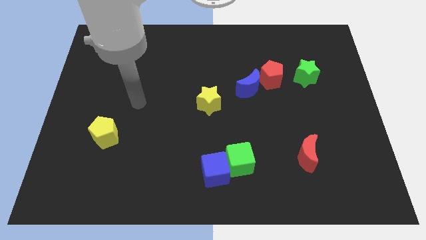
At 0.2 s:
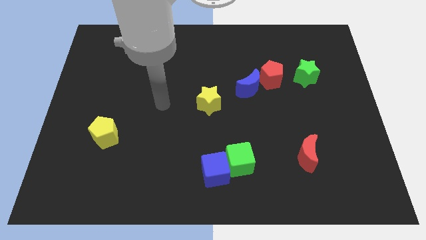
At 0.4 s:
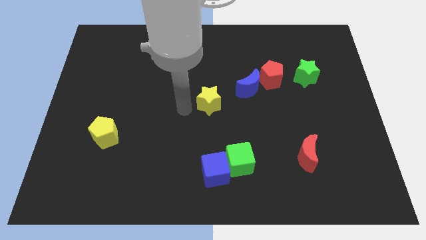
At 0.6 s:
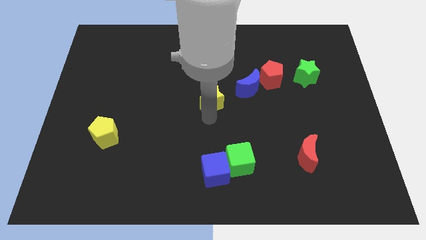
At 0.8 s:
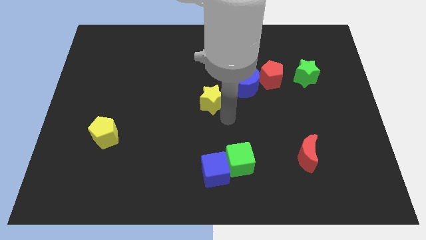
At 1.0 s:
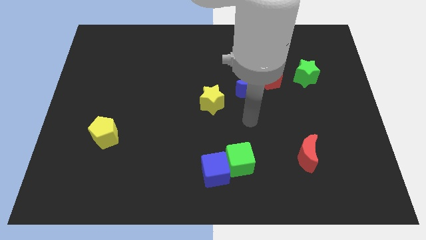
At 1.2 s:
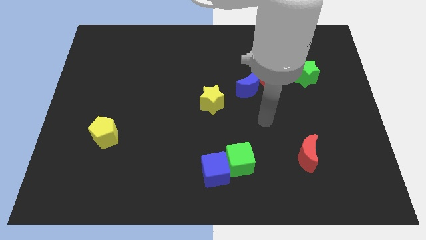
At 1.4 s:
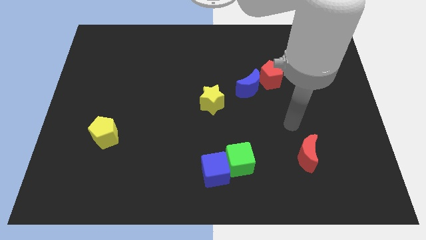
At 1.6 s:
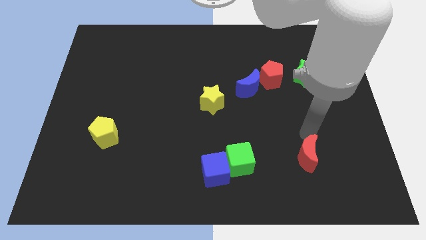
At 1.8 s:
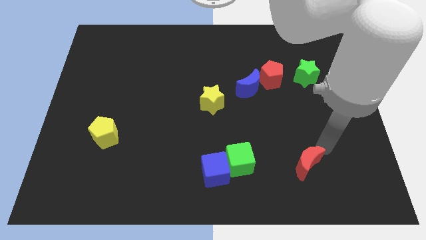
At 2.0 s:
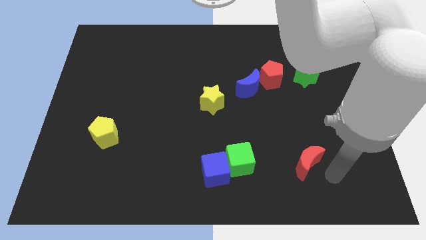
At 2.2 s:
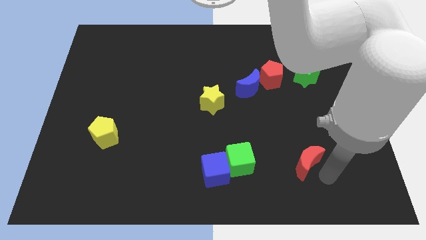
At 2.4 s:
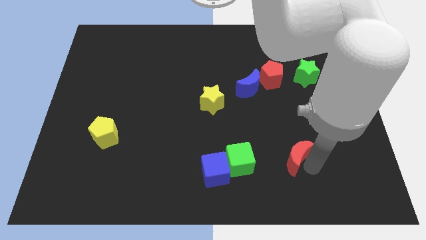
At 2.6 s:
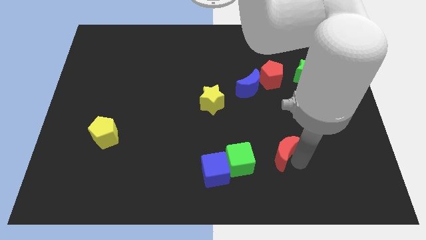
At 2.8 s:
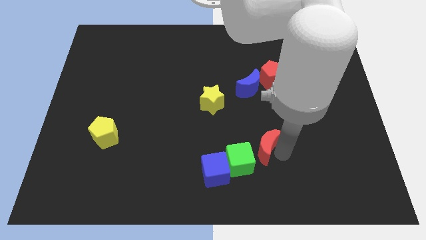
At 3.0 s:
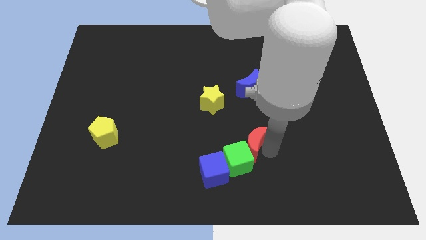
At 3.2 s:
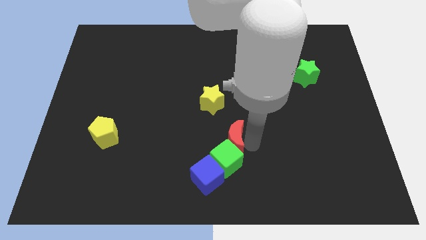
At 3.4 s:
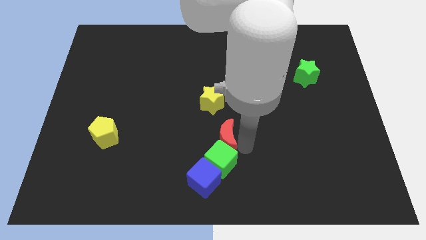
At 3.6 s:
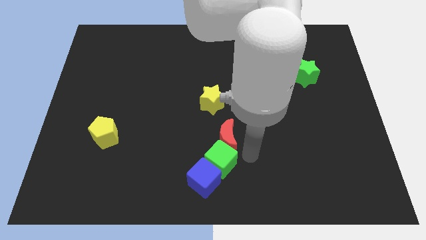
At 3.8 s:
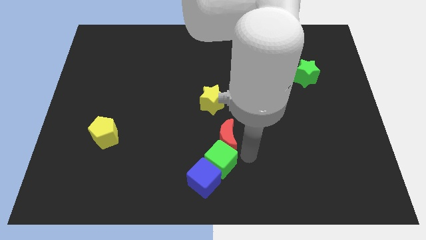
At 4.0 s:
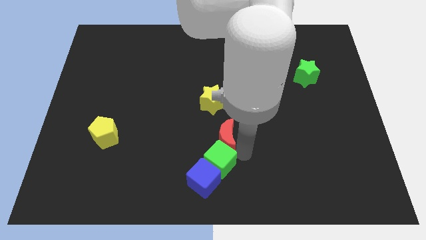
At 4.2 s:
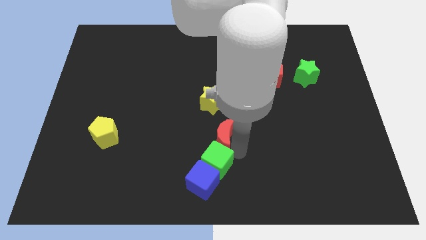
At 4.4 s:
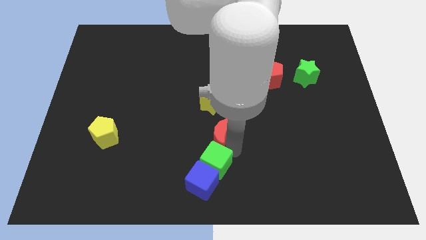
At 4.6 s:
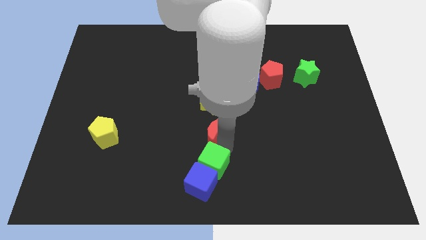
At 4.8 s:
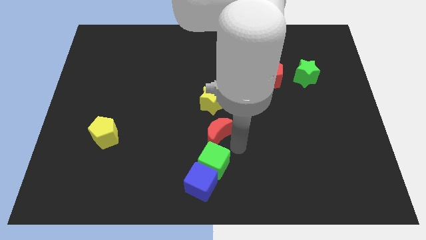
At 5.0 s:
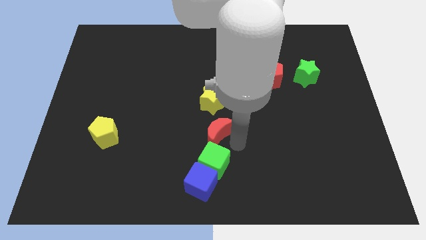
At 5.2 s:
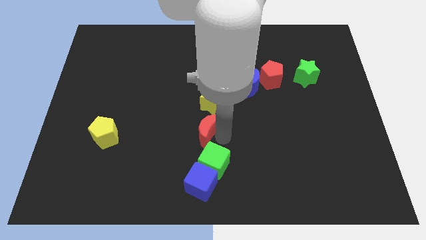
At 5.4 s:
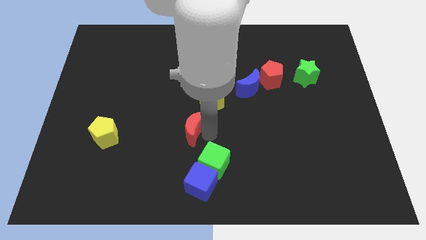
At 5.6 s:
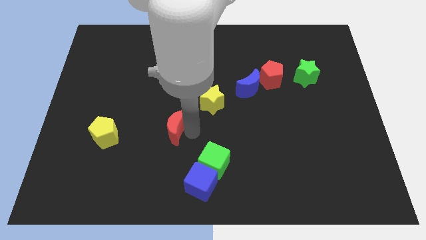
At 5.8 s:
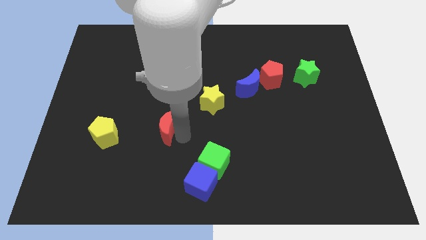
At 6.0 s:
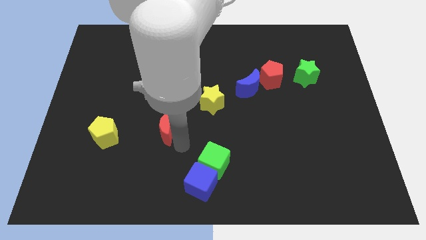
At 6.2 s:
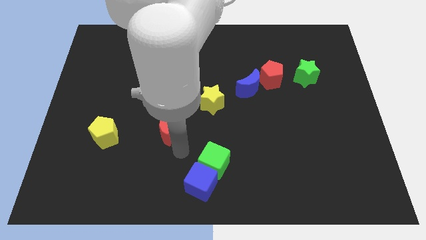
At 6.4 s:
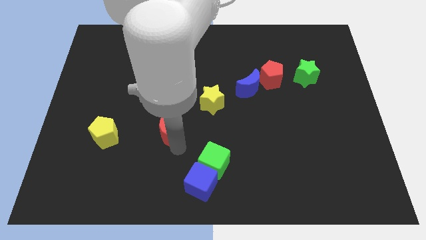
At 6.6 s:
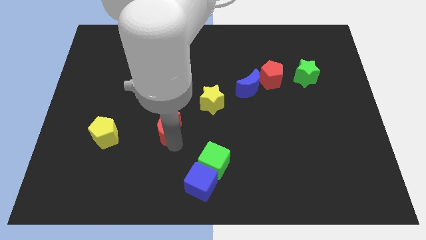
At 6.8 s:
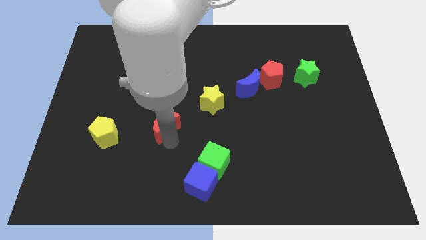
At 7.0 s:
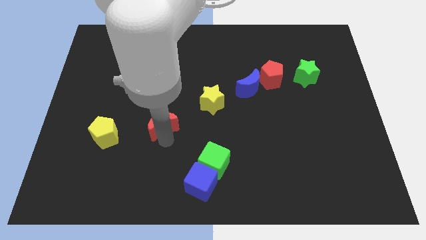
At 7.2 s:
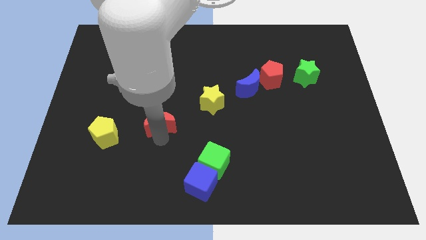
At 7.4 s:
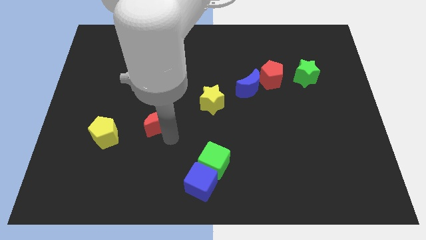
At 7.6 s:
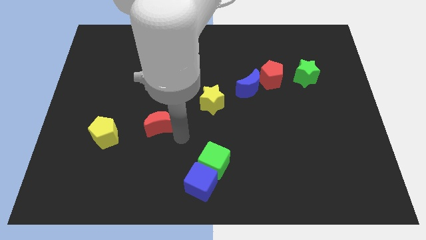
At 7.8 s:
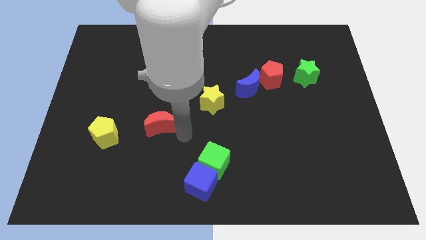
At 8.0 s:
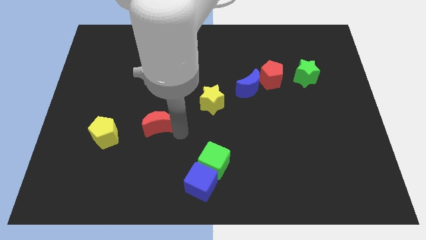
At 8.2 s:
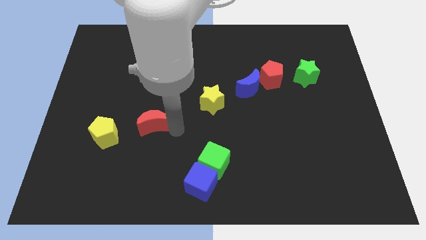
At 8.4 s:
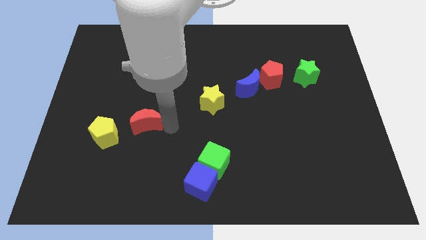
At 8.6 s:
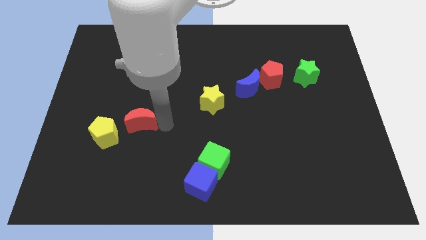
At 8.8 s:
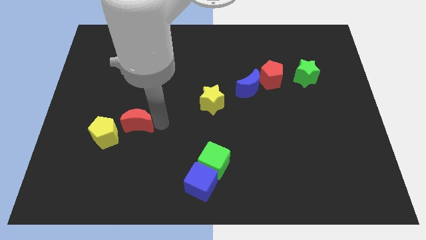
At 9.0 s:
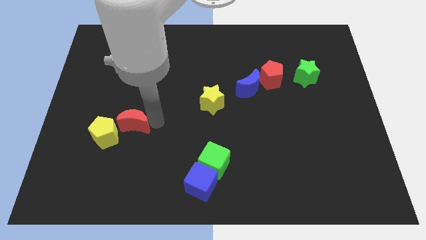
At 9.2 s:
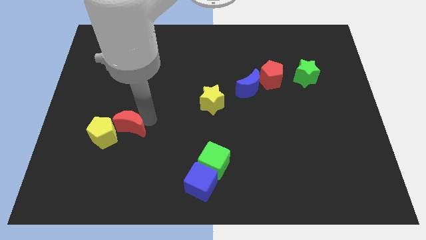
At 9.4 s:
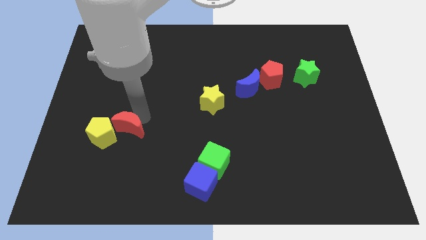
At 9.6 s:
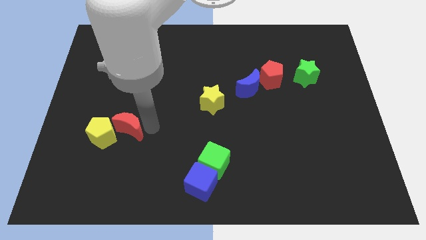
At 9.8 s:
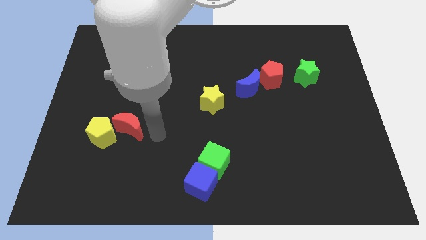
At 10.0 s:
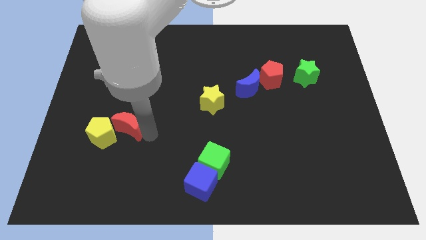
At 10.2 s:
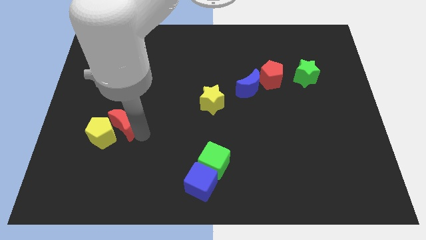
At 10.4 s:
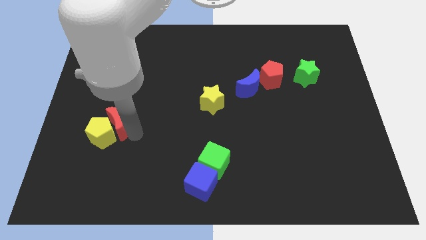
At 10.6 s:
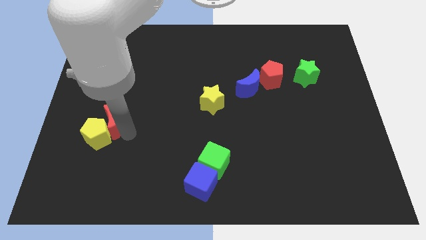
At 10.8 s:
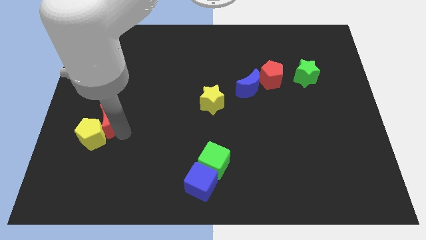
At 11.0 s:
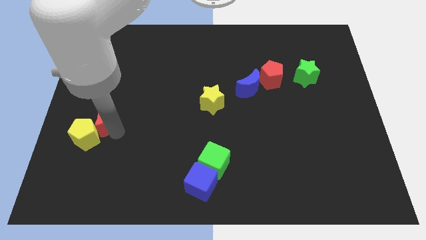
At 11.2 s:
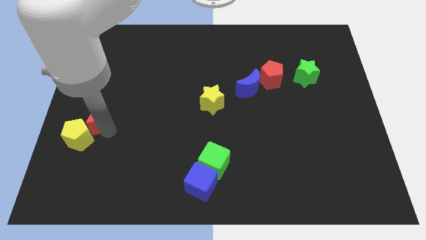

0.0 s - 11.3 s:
move the red moon to the left side

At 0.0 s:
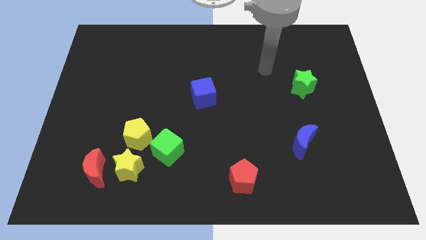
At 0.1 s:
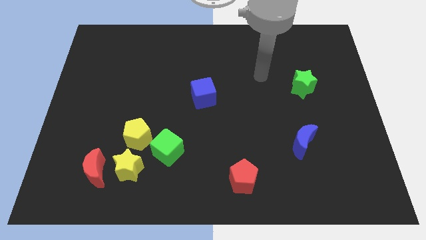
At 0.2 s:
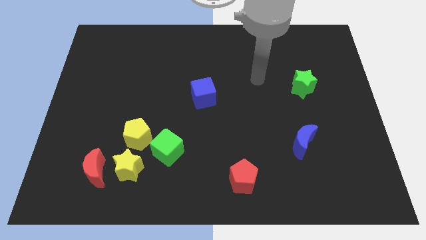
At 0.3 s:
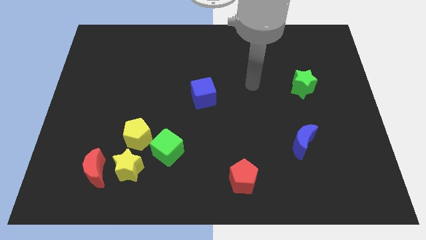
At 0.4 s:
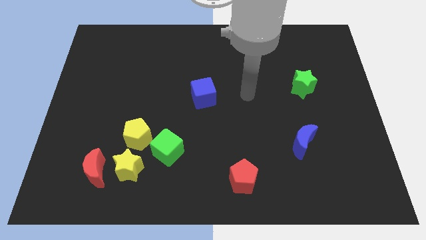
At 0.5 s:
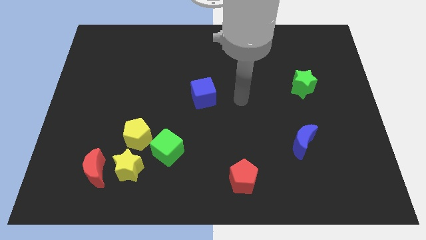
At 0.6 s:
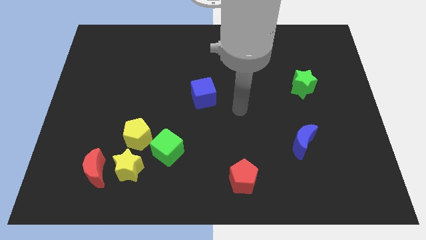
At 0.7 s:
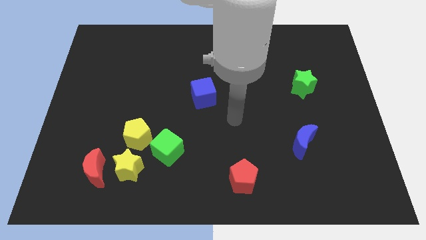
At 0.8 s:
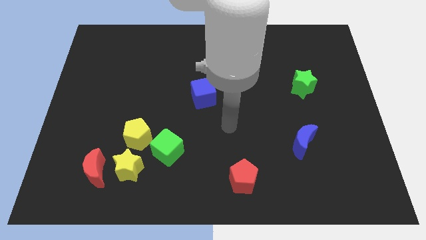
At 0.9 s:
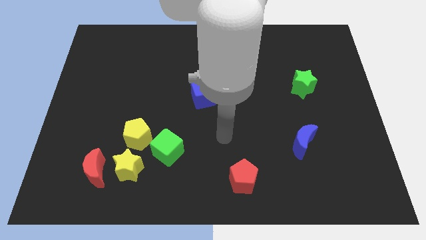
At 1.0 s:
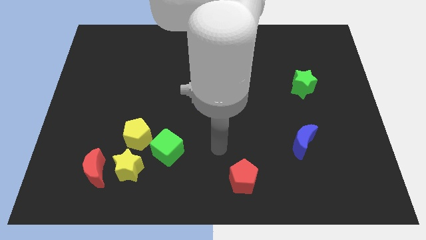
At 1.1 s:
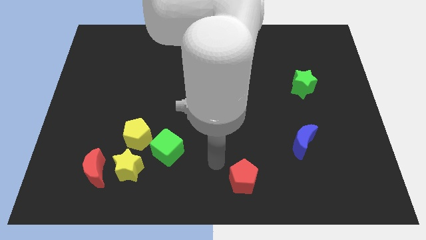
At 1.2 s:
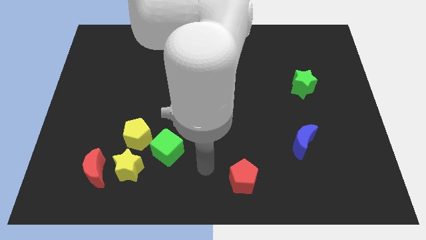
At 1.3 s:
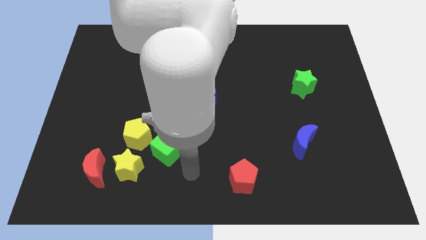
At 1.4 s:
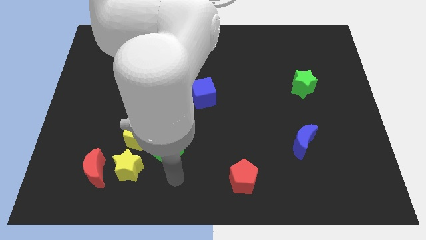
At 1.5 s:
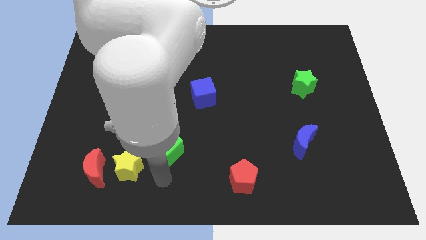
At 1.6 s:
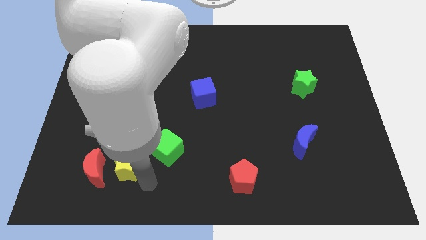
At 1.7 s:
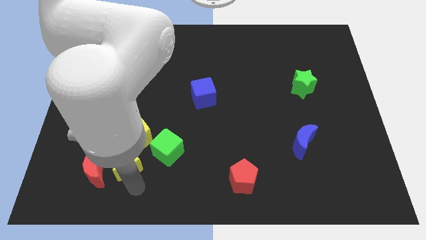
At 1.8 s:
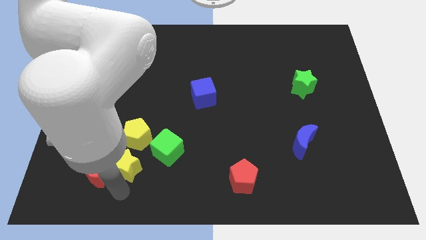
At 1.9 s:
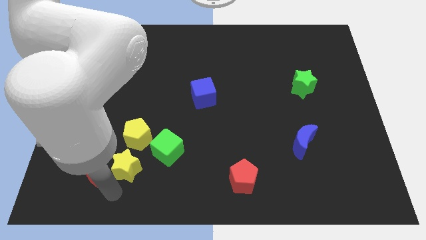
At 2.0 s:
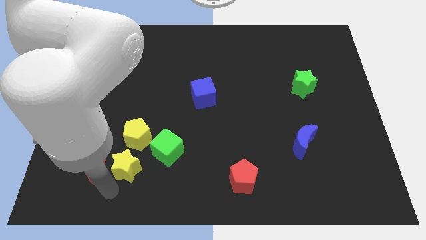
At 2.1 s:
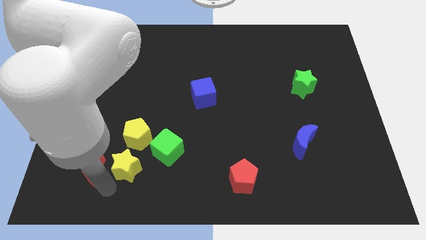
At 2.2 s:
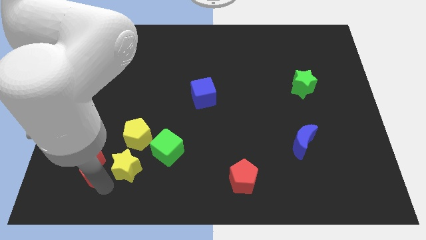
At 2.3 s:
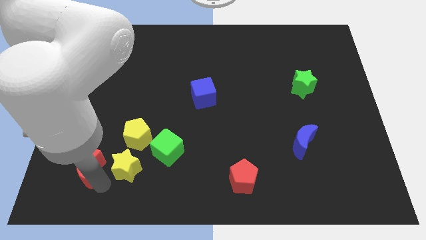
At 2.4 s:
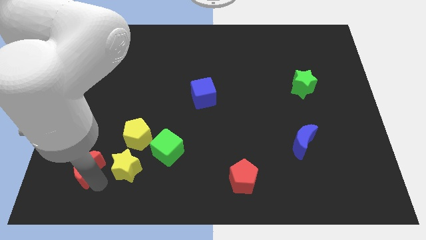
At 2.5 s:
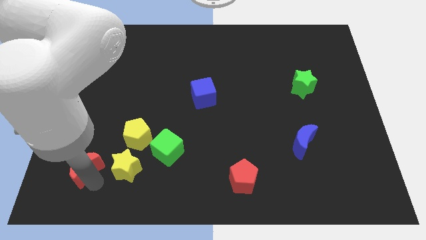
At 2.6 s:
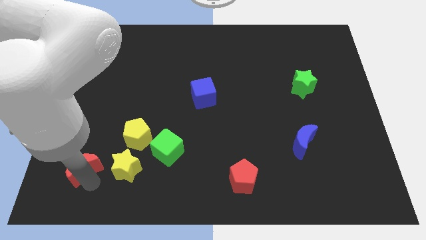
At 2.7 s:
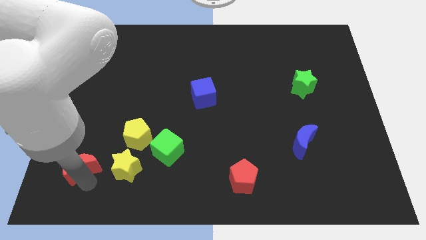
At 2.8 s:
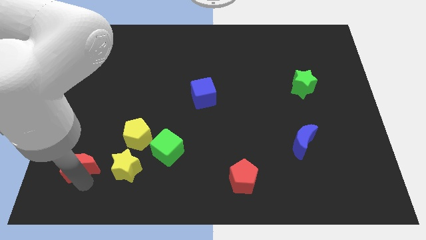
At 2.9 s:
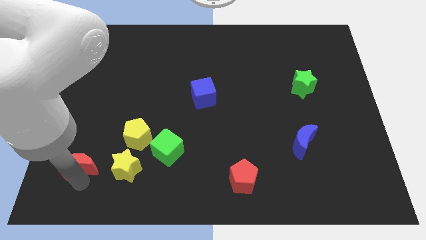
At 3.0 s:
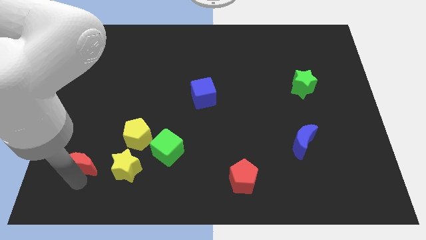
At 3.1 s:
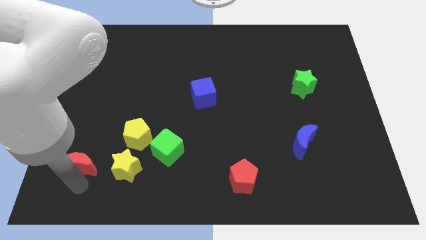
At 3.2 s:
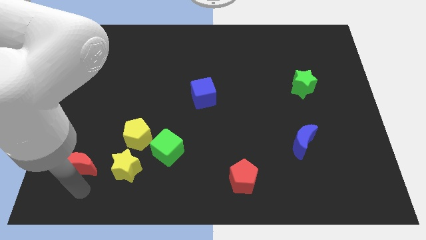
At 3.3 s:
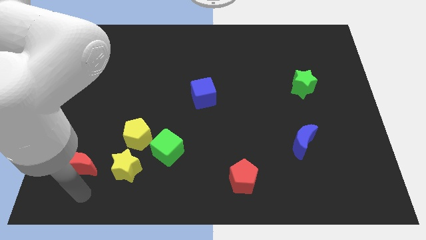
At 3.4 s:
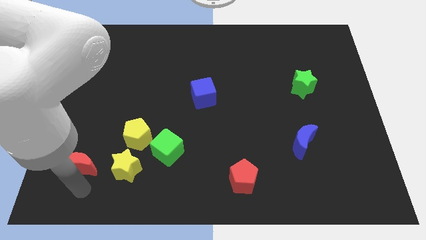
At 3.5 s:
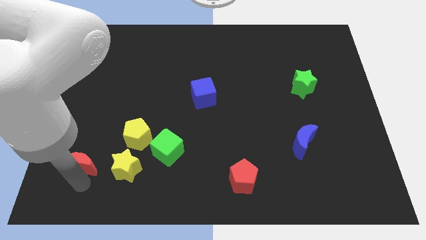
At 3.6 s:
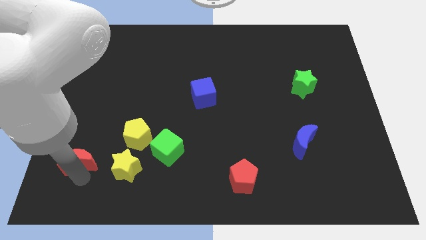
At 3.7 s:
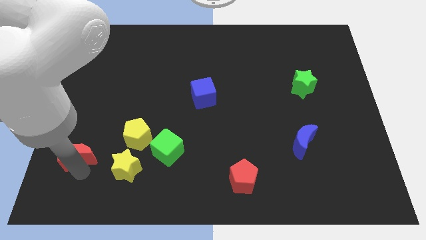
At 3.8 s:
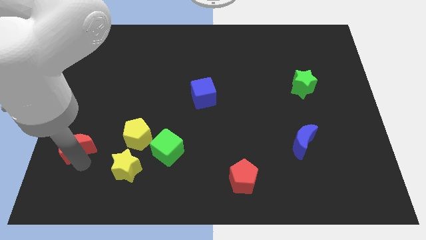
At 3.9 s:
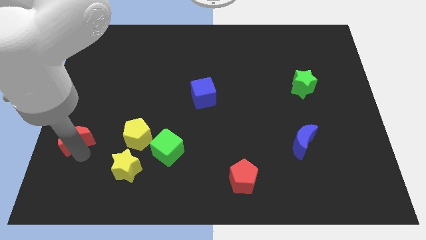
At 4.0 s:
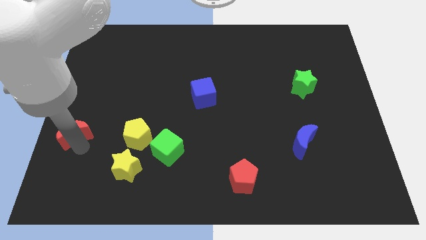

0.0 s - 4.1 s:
slide the red moon to the center left
